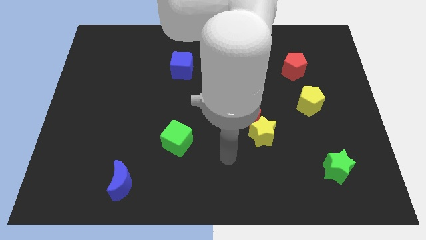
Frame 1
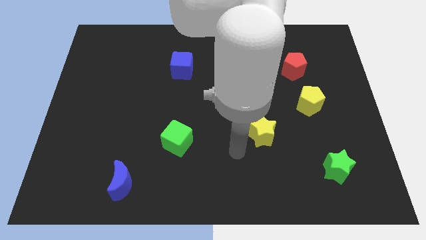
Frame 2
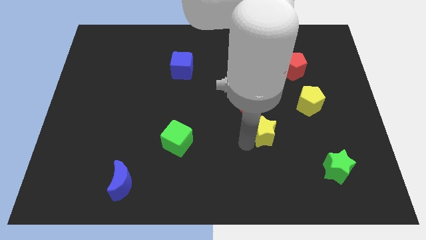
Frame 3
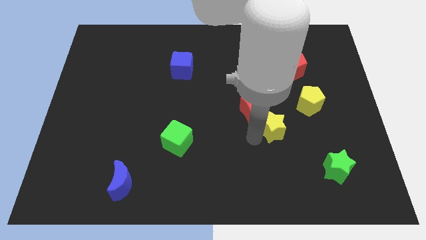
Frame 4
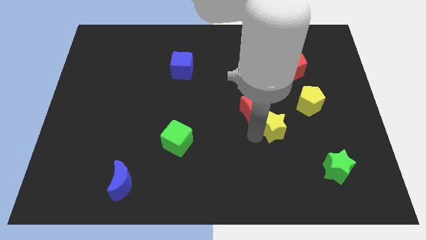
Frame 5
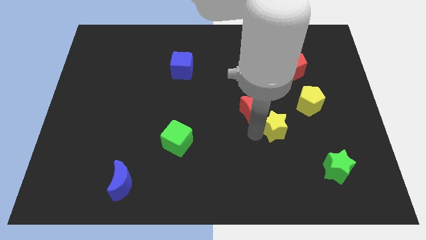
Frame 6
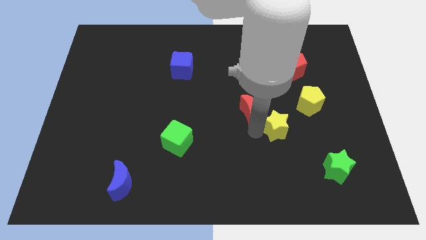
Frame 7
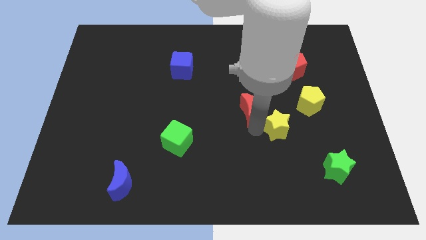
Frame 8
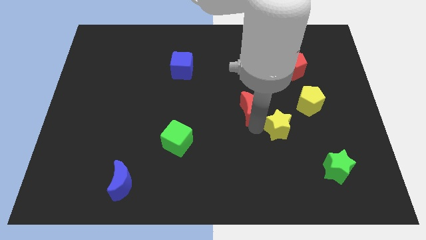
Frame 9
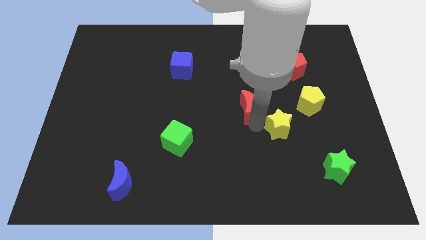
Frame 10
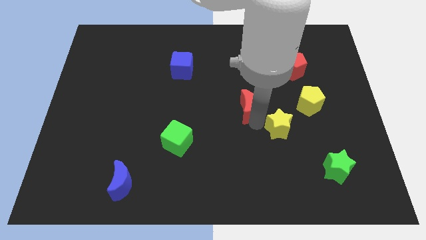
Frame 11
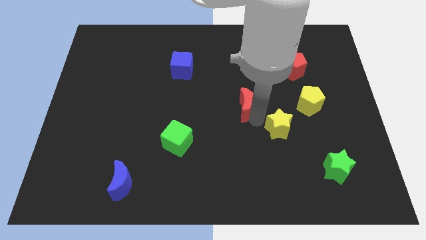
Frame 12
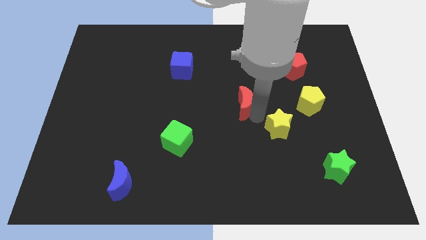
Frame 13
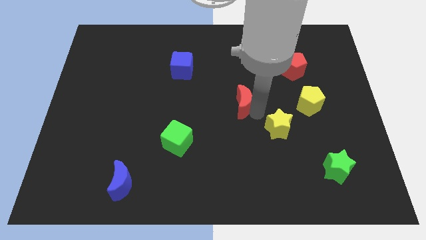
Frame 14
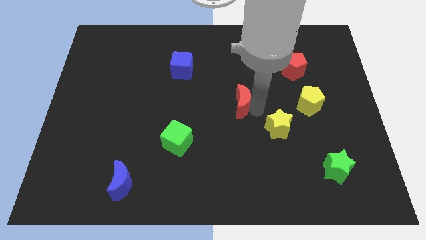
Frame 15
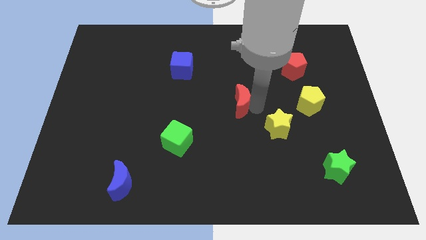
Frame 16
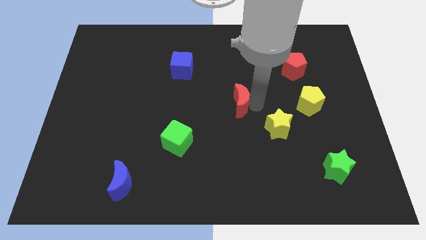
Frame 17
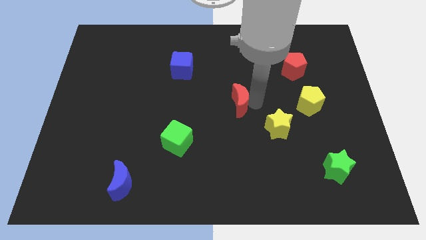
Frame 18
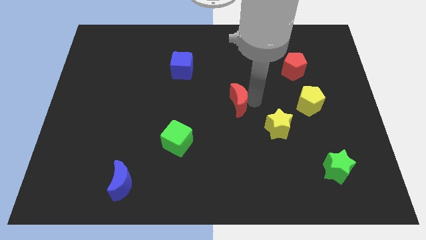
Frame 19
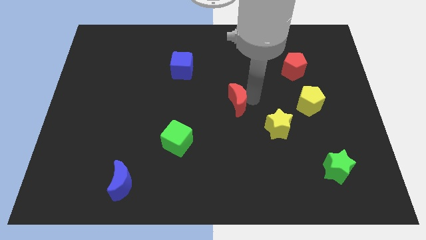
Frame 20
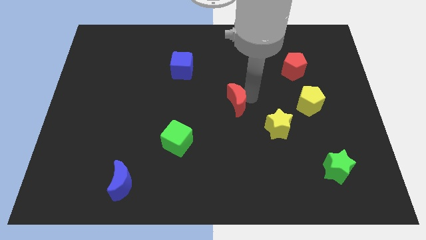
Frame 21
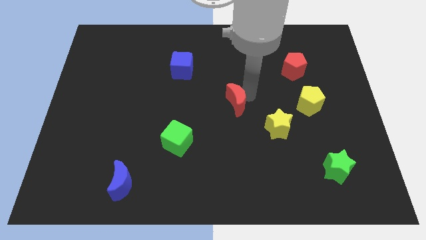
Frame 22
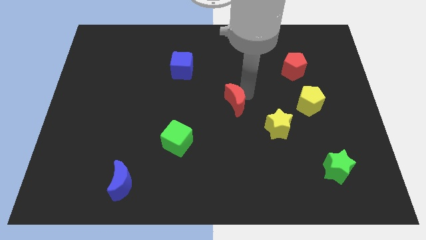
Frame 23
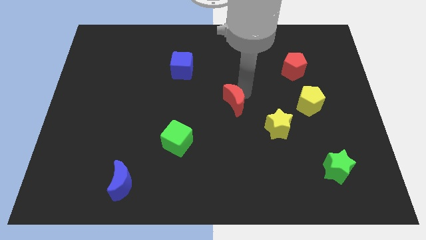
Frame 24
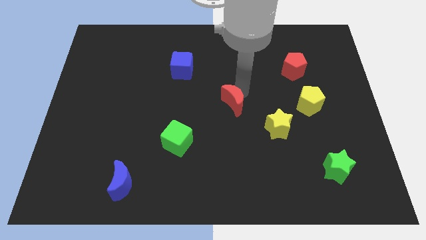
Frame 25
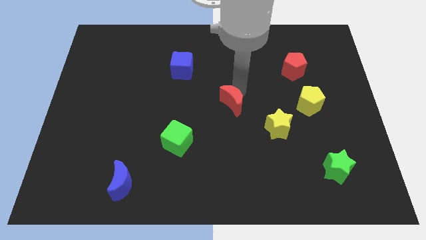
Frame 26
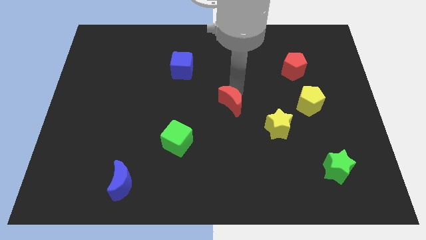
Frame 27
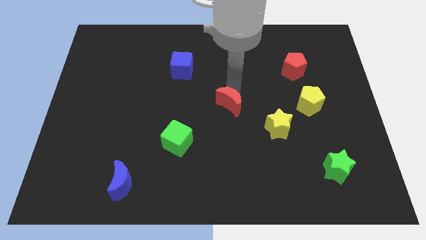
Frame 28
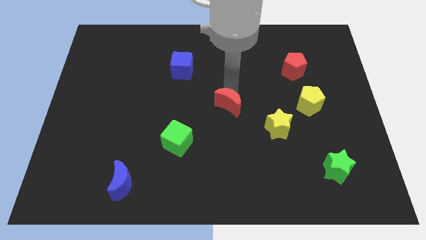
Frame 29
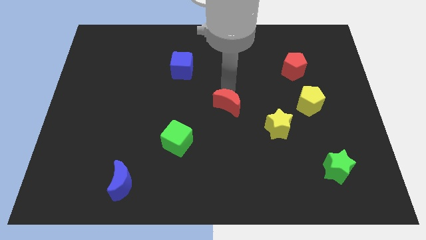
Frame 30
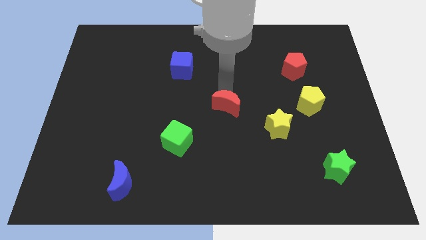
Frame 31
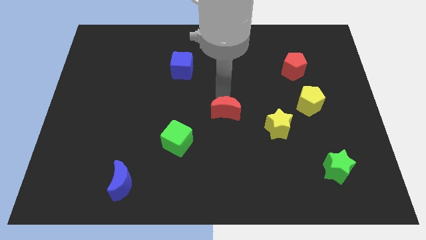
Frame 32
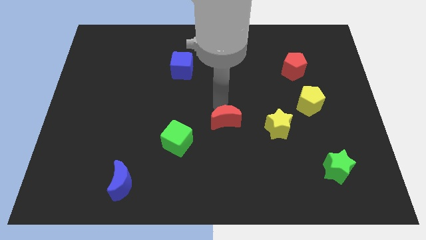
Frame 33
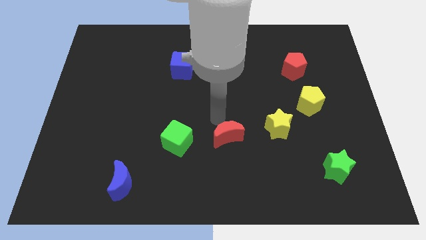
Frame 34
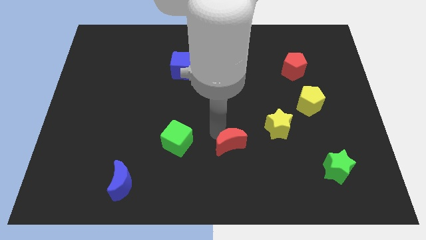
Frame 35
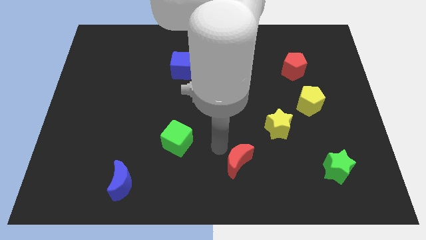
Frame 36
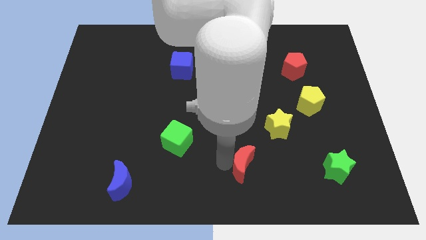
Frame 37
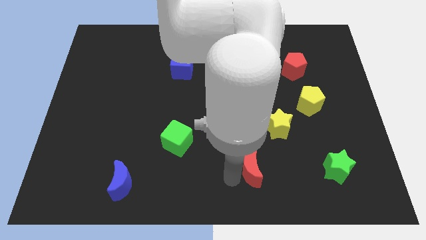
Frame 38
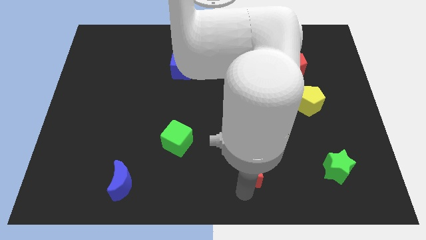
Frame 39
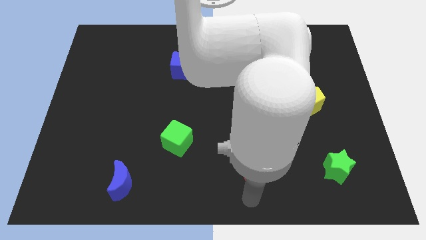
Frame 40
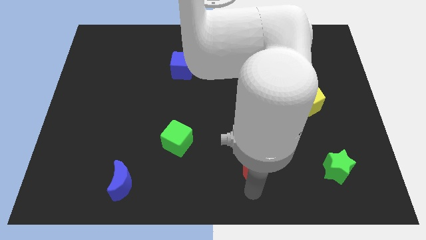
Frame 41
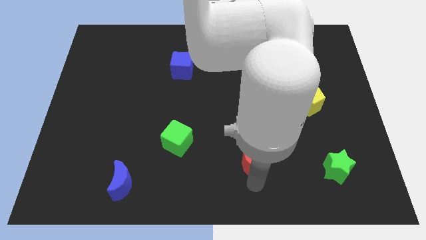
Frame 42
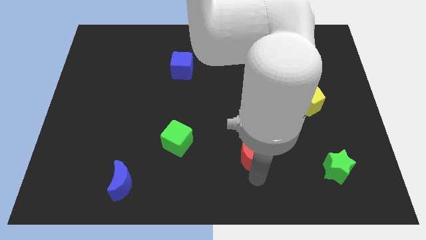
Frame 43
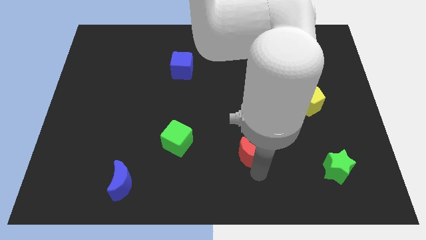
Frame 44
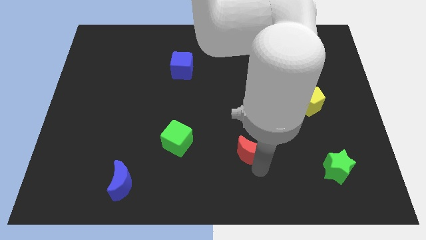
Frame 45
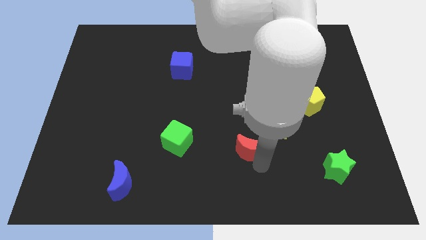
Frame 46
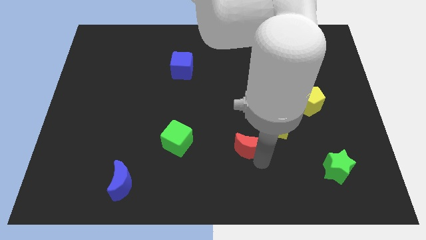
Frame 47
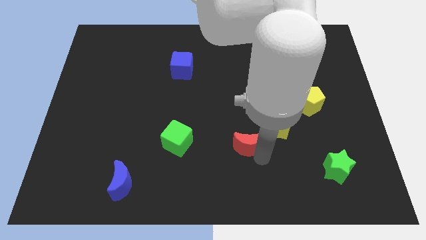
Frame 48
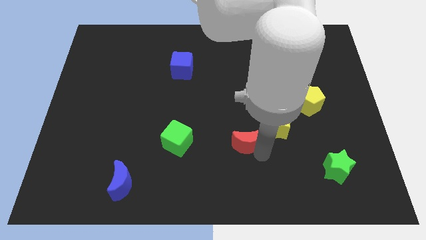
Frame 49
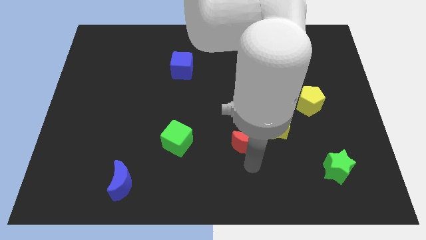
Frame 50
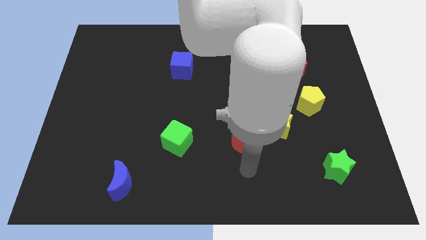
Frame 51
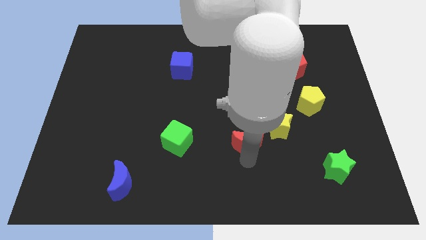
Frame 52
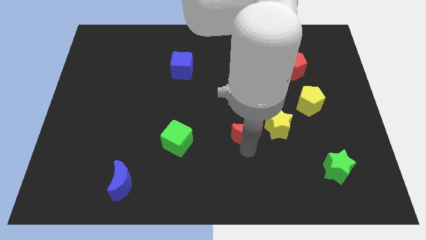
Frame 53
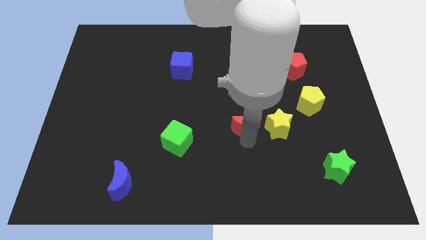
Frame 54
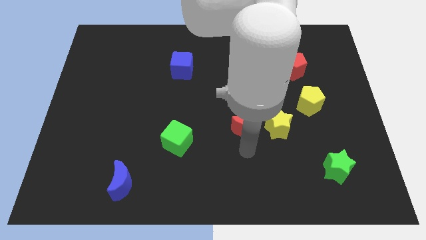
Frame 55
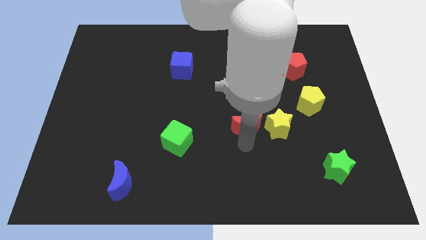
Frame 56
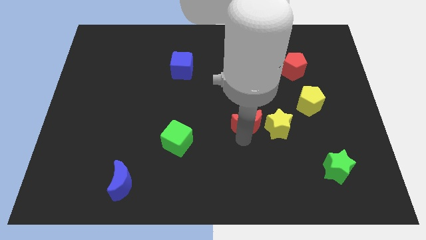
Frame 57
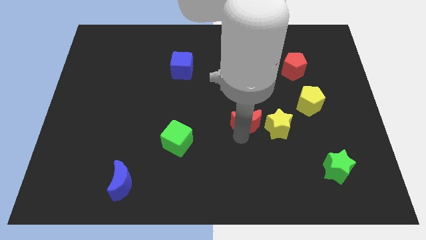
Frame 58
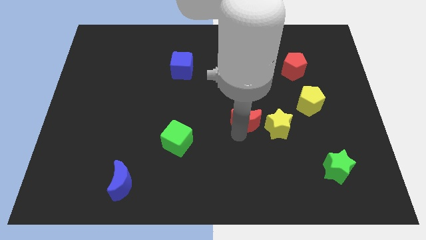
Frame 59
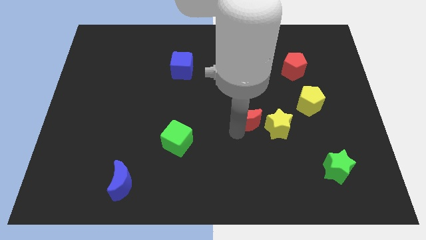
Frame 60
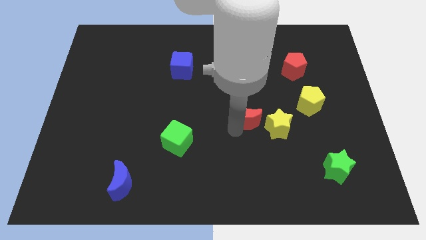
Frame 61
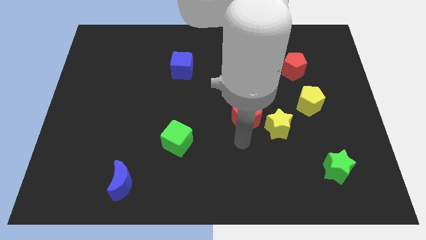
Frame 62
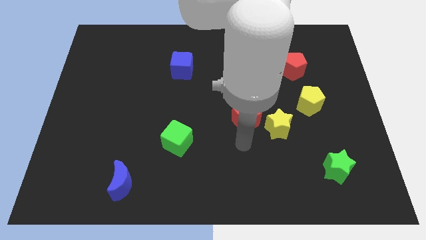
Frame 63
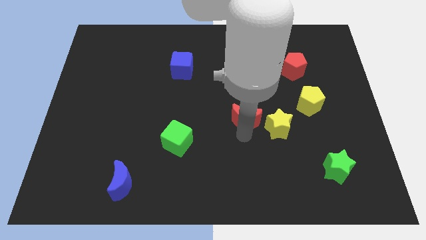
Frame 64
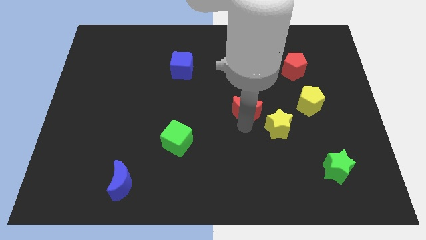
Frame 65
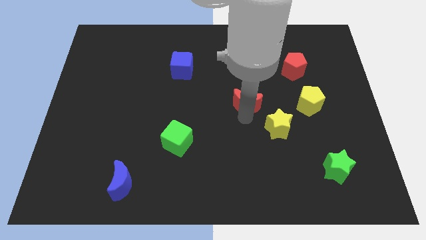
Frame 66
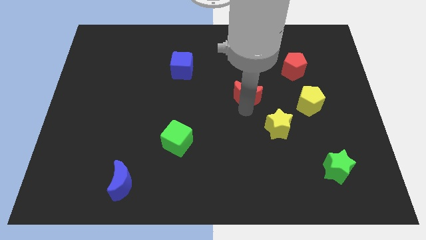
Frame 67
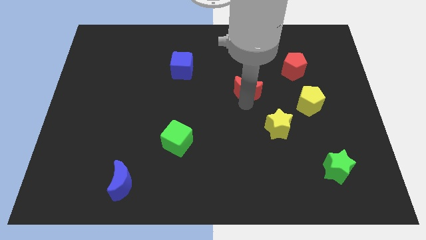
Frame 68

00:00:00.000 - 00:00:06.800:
slightly move the red moon up

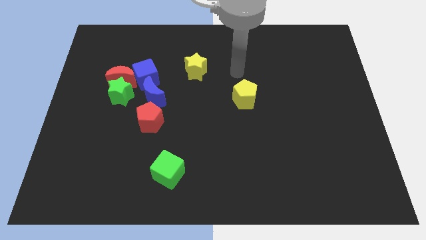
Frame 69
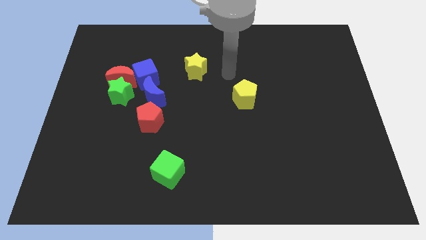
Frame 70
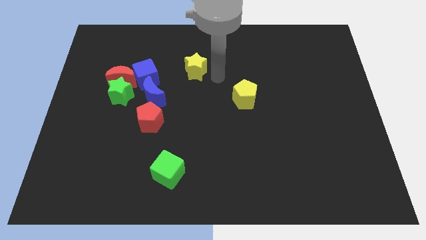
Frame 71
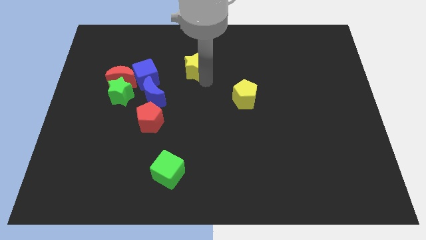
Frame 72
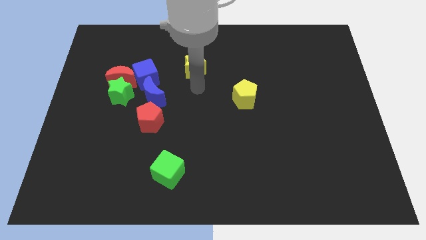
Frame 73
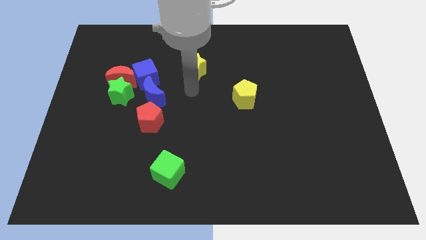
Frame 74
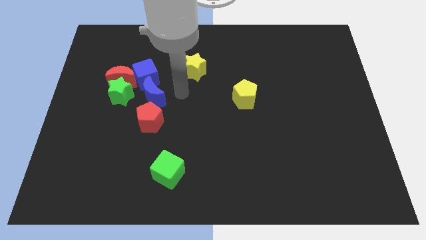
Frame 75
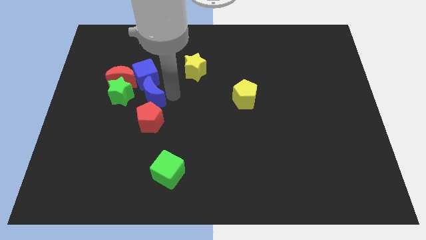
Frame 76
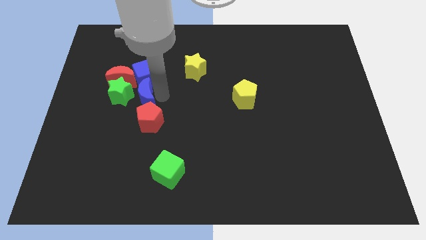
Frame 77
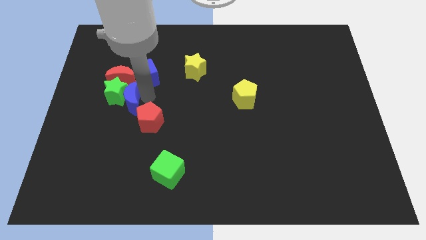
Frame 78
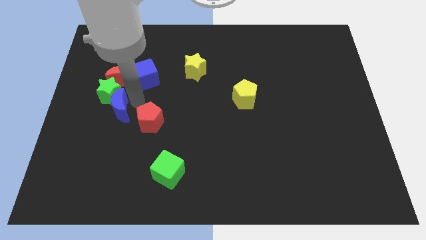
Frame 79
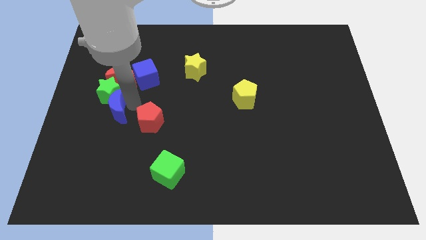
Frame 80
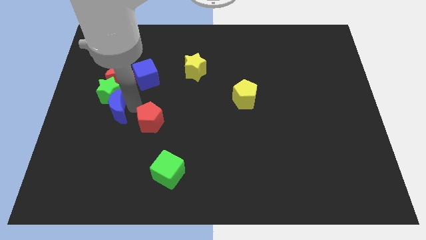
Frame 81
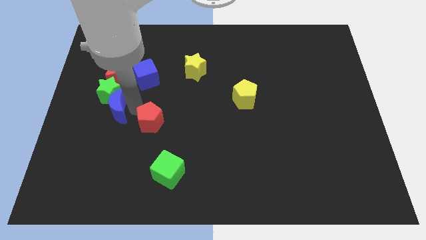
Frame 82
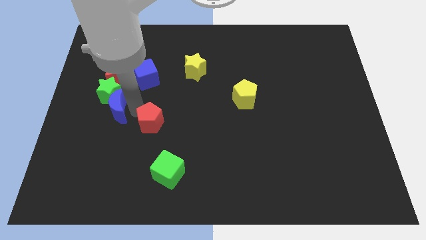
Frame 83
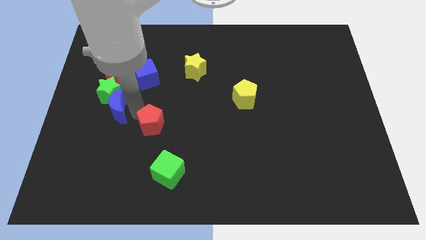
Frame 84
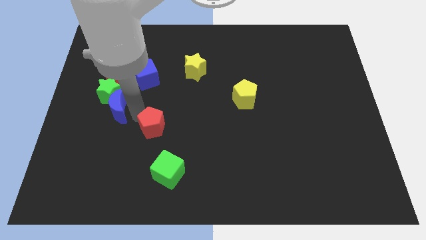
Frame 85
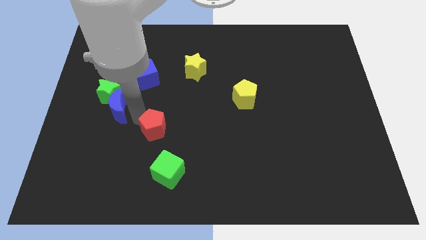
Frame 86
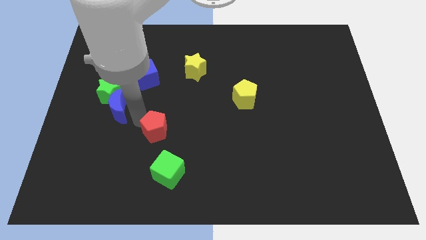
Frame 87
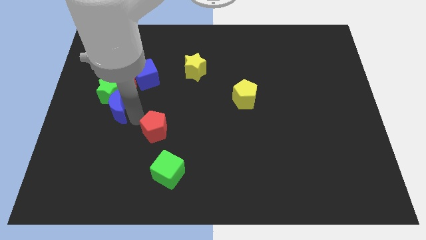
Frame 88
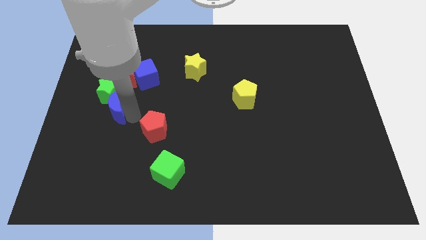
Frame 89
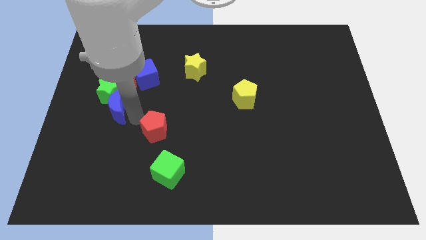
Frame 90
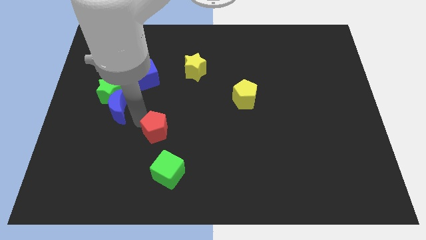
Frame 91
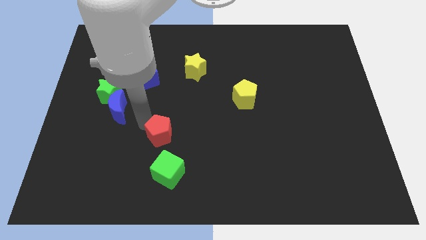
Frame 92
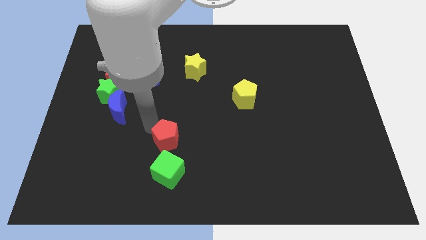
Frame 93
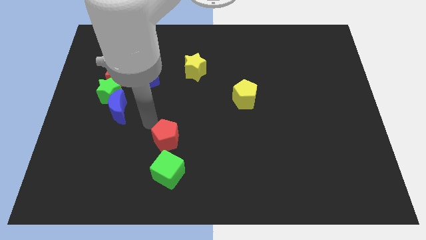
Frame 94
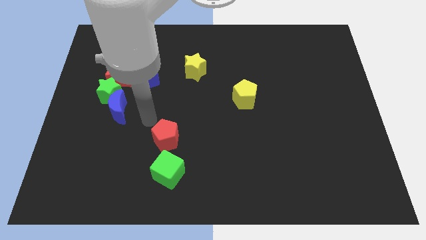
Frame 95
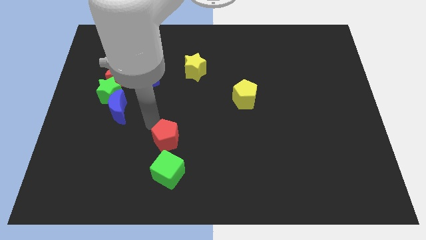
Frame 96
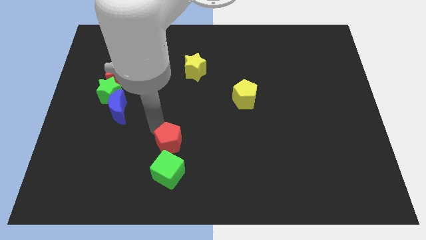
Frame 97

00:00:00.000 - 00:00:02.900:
slightly move the red pentagon down and right diagonally
